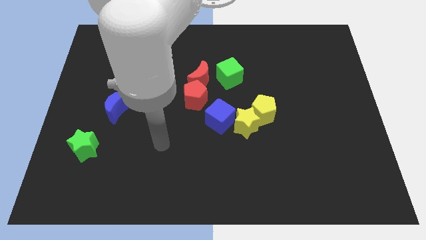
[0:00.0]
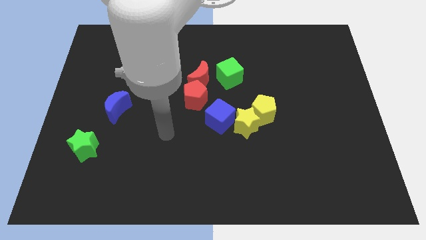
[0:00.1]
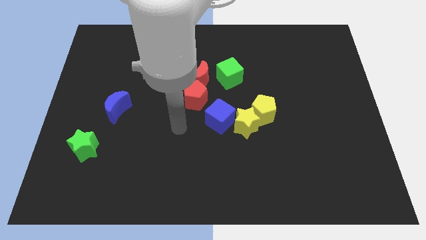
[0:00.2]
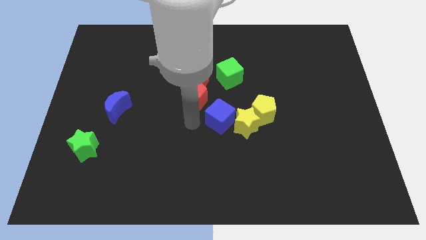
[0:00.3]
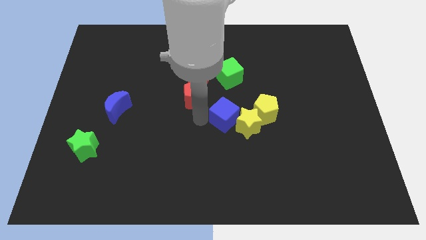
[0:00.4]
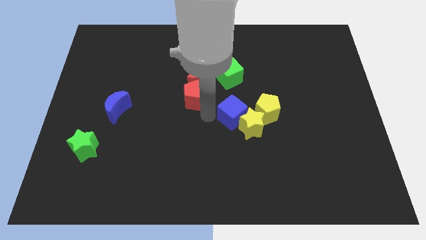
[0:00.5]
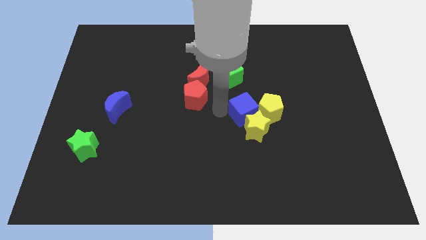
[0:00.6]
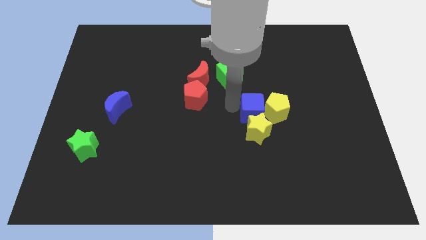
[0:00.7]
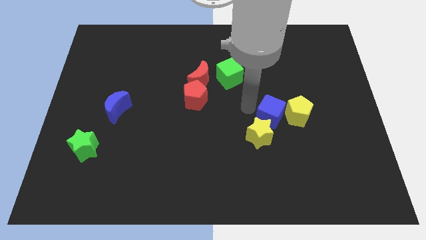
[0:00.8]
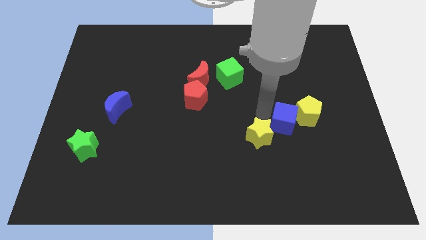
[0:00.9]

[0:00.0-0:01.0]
pull the yellow star apart from the yellow pentagon and blue cube

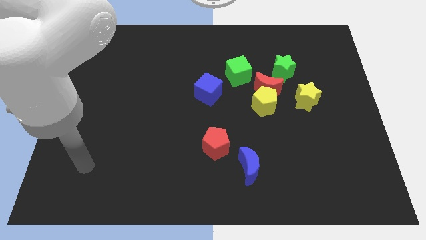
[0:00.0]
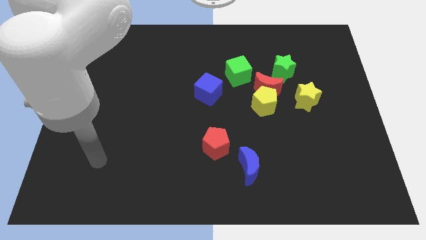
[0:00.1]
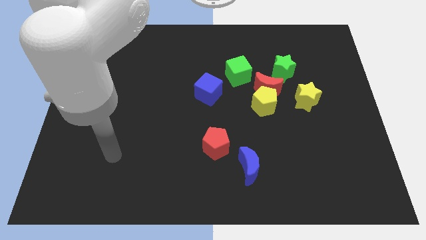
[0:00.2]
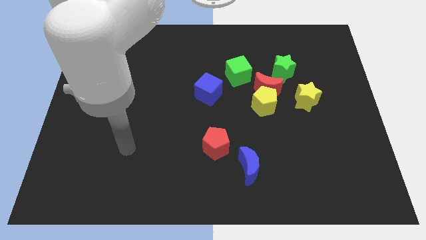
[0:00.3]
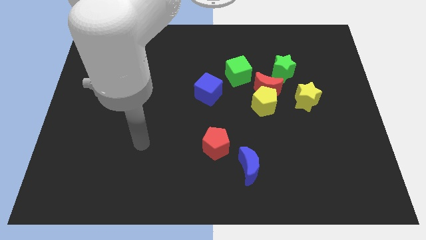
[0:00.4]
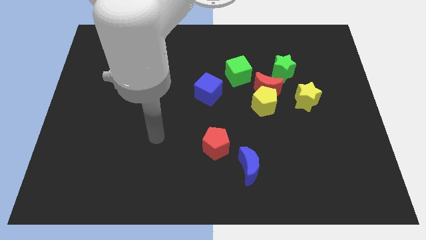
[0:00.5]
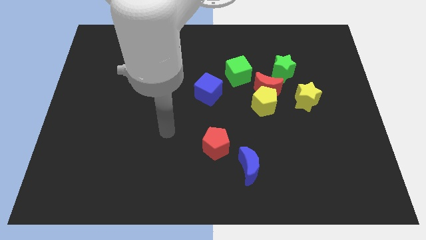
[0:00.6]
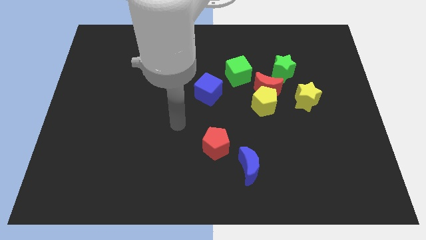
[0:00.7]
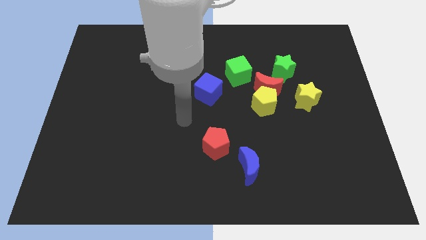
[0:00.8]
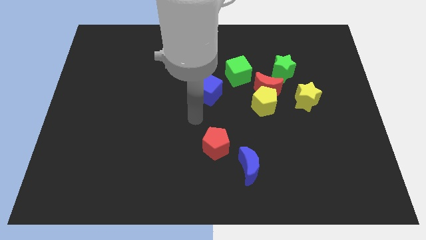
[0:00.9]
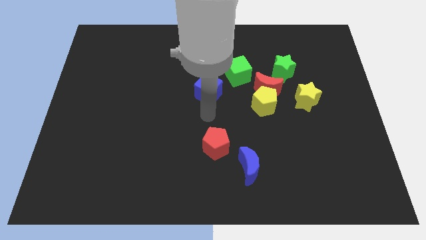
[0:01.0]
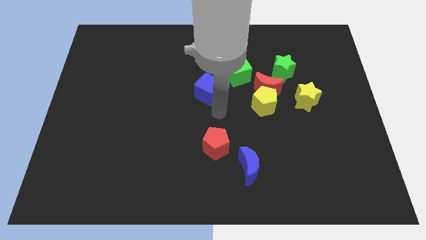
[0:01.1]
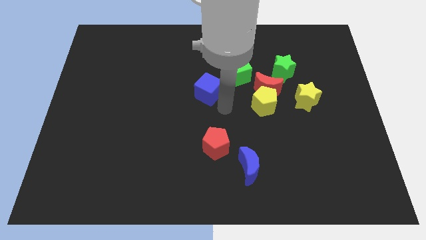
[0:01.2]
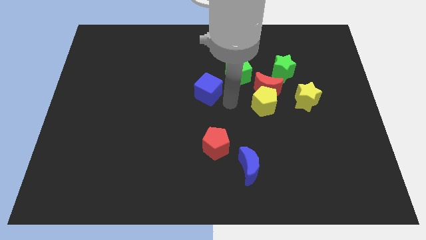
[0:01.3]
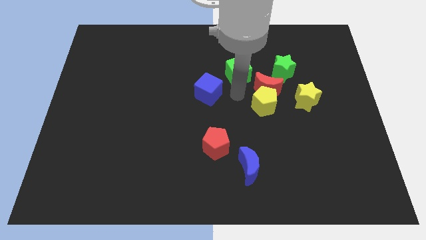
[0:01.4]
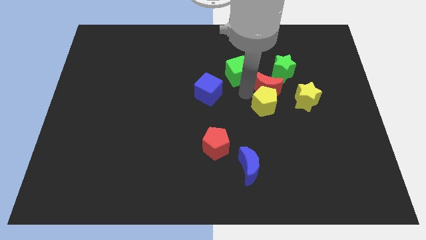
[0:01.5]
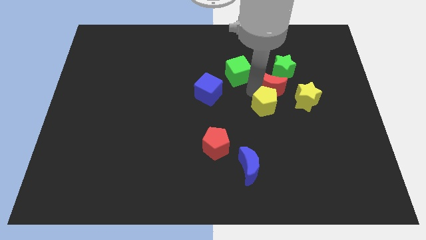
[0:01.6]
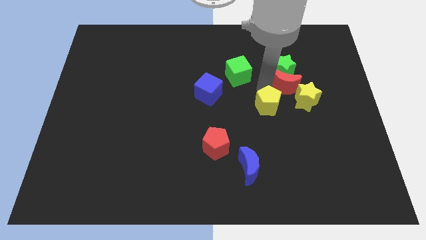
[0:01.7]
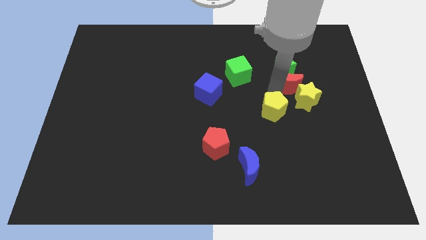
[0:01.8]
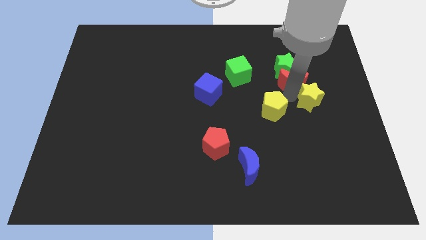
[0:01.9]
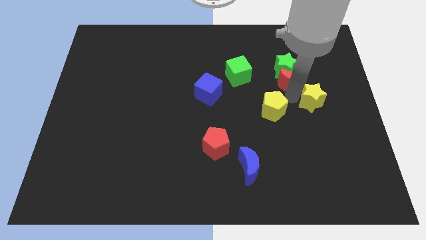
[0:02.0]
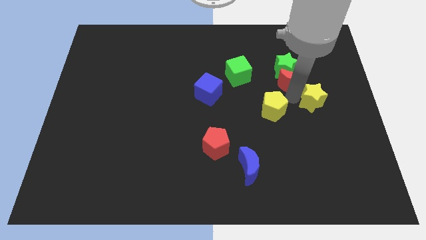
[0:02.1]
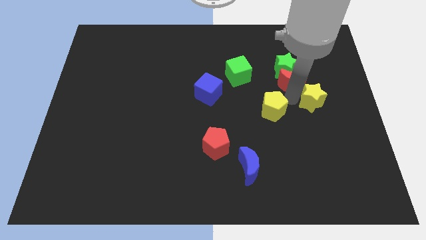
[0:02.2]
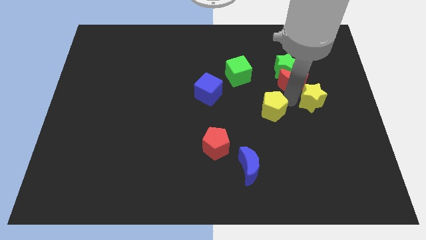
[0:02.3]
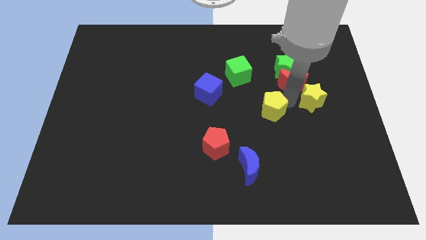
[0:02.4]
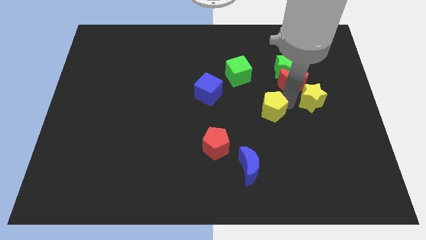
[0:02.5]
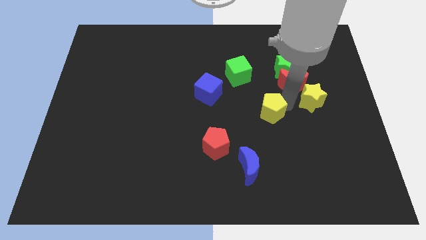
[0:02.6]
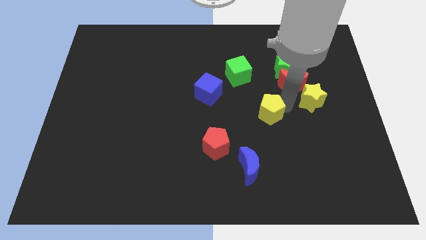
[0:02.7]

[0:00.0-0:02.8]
separate the yellow pentagon from the red moon and yellow star

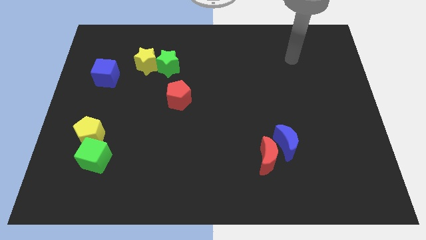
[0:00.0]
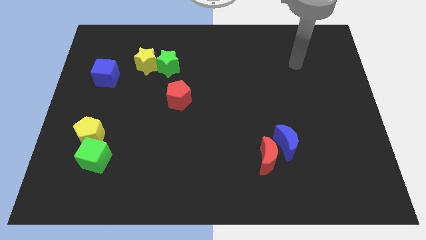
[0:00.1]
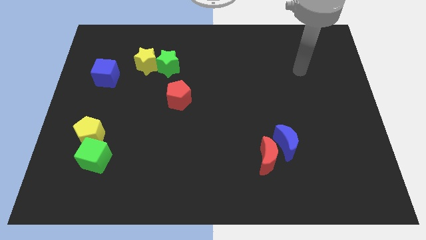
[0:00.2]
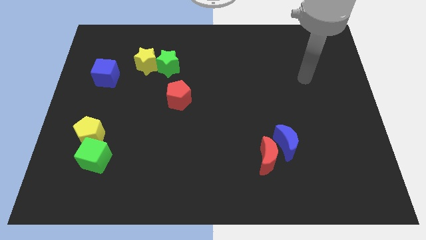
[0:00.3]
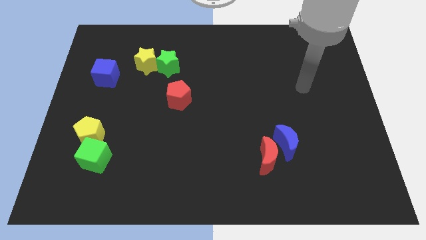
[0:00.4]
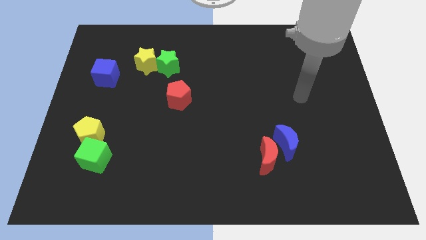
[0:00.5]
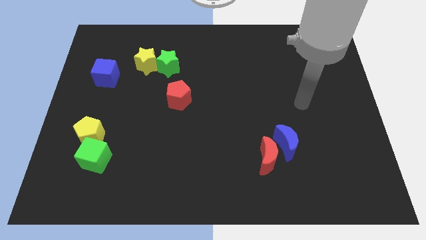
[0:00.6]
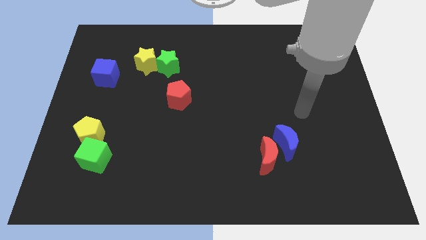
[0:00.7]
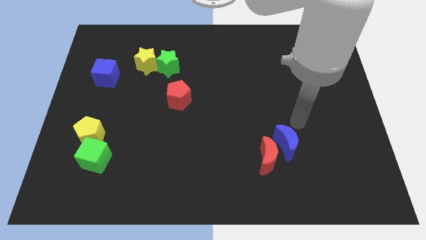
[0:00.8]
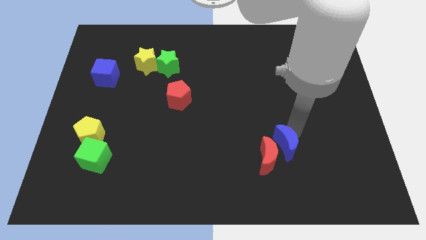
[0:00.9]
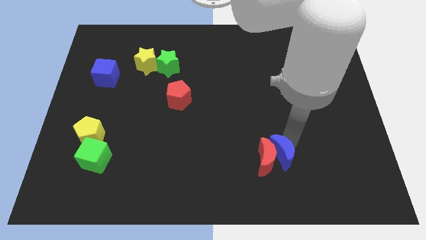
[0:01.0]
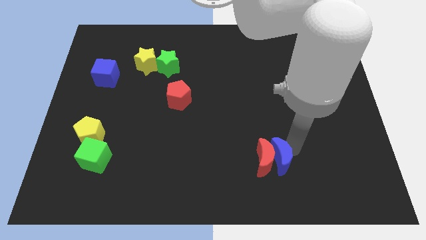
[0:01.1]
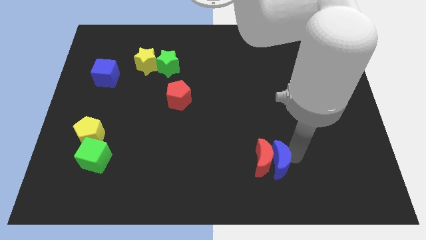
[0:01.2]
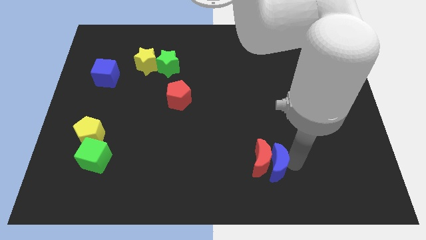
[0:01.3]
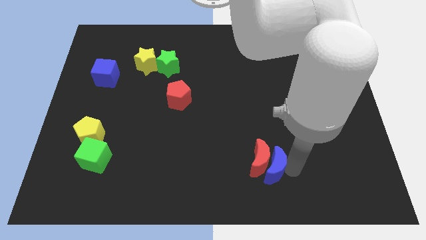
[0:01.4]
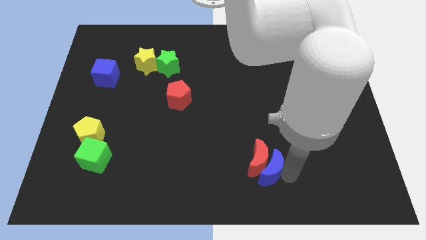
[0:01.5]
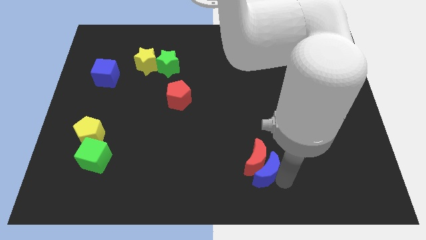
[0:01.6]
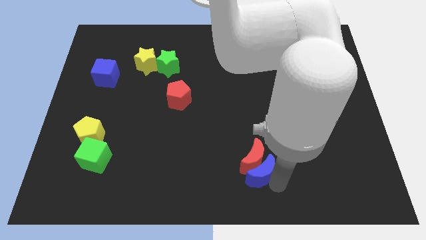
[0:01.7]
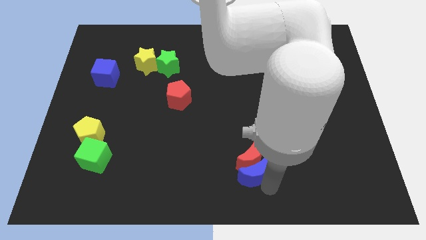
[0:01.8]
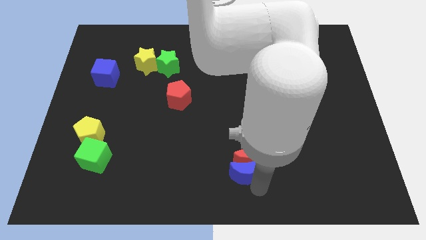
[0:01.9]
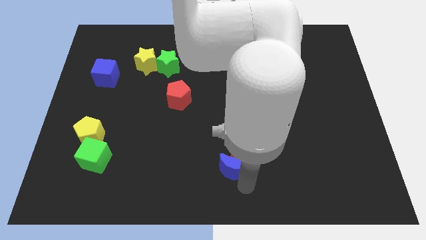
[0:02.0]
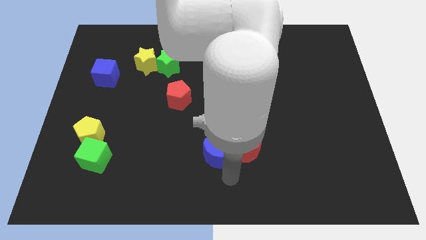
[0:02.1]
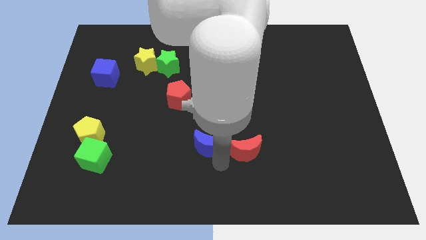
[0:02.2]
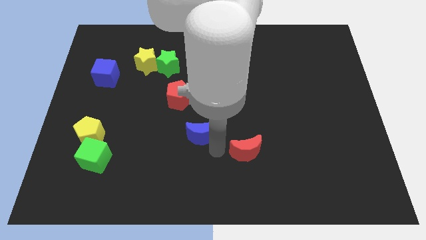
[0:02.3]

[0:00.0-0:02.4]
separate the red moon from the blue moon

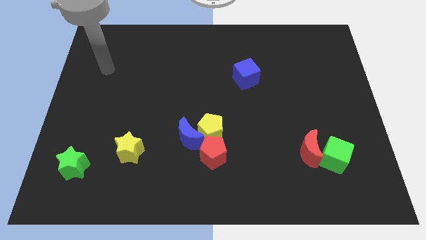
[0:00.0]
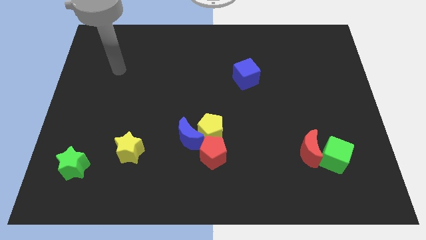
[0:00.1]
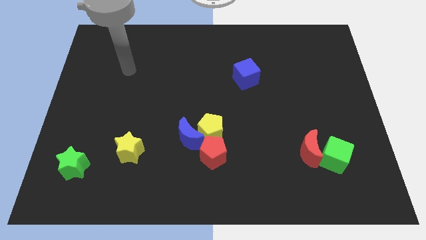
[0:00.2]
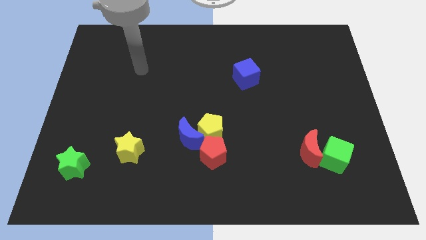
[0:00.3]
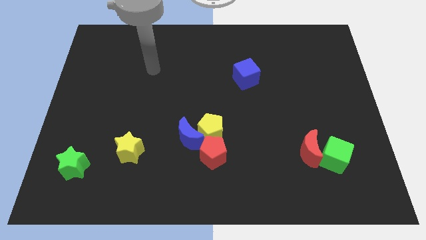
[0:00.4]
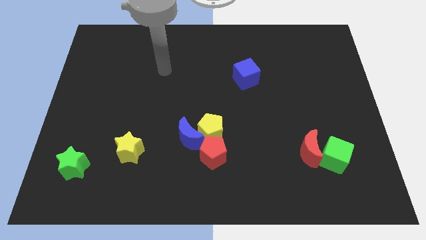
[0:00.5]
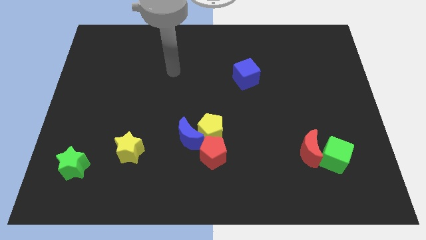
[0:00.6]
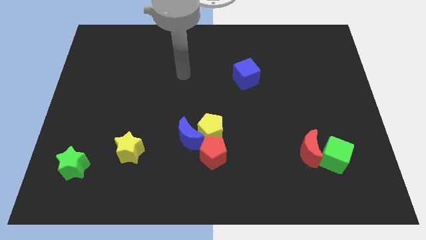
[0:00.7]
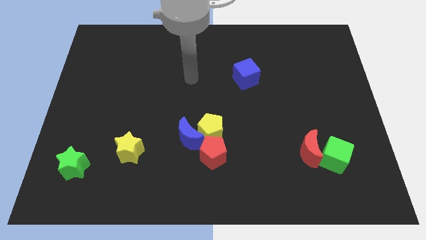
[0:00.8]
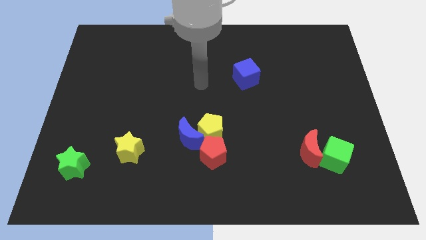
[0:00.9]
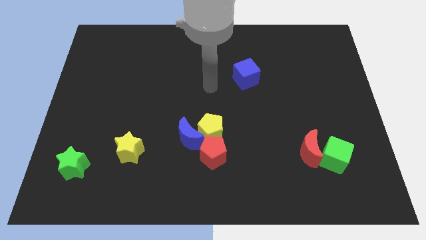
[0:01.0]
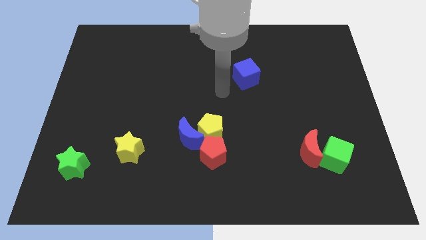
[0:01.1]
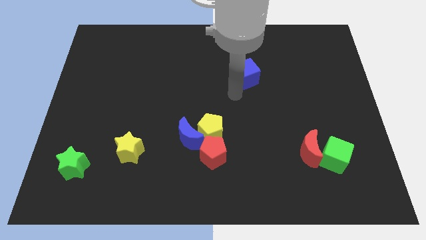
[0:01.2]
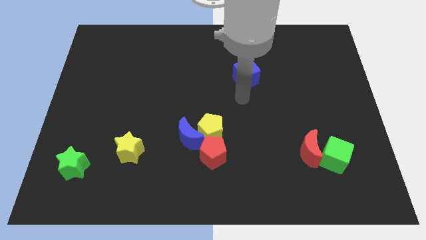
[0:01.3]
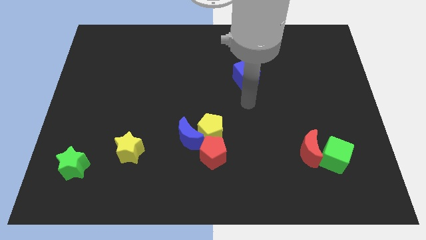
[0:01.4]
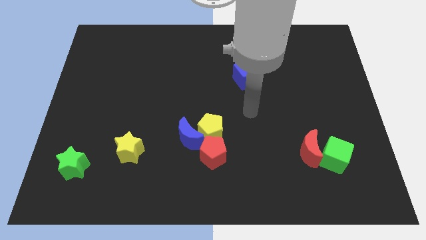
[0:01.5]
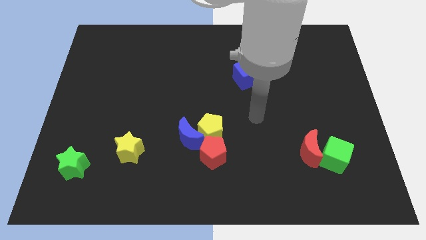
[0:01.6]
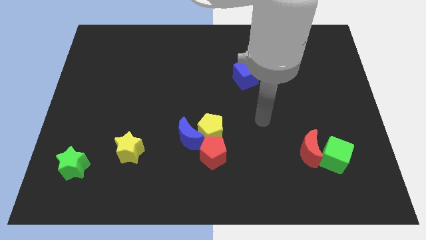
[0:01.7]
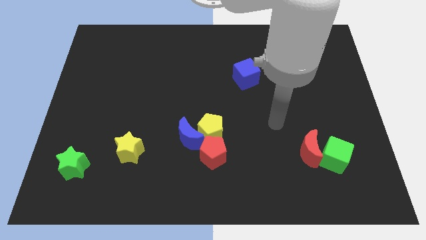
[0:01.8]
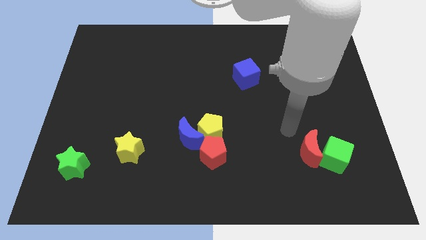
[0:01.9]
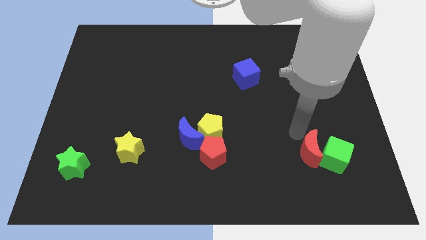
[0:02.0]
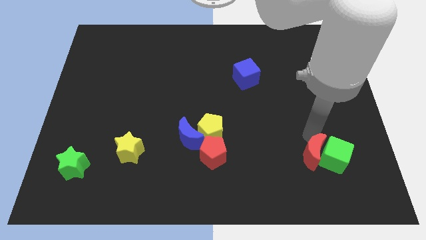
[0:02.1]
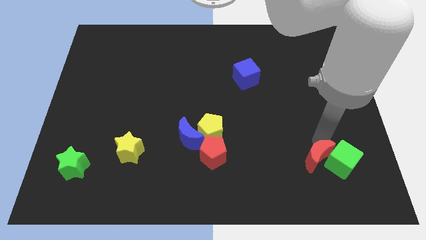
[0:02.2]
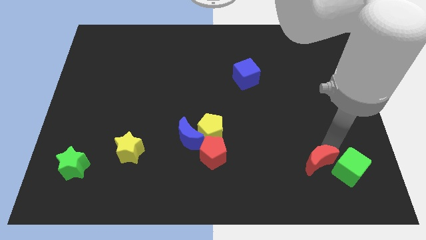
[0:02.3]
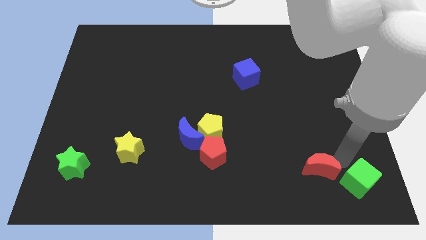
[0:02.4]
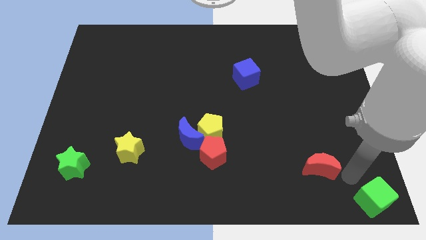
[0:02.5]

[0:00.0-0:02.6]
separate the red moon from the green cube

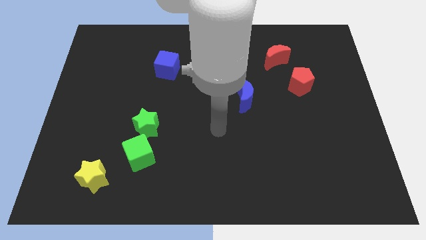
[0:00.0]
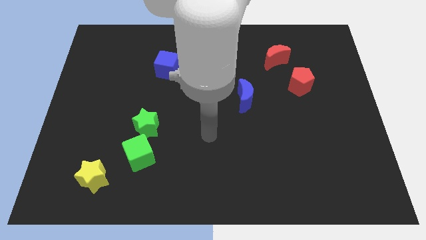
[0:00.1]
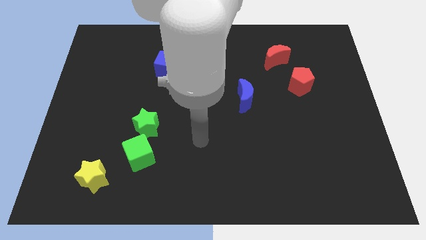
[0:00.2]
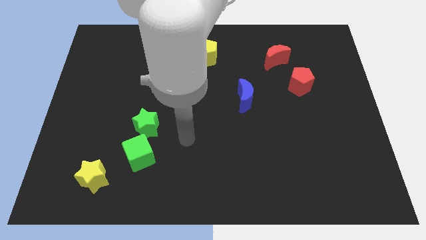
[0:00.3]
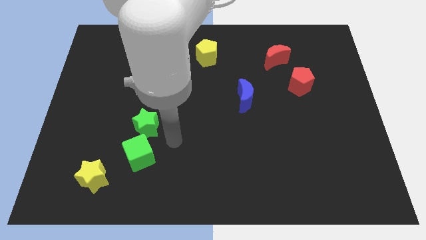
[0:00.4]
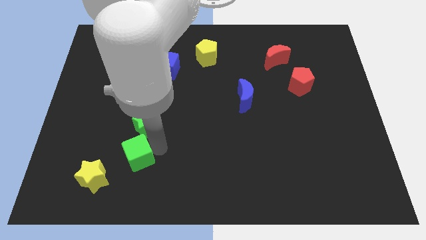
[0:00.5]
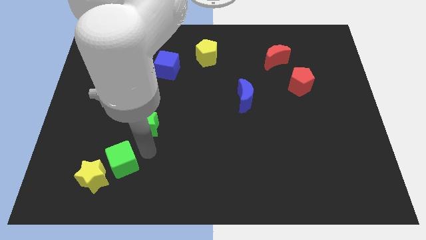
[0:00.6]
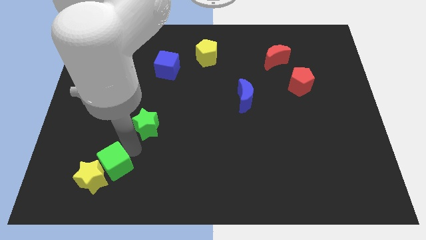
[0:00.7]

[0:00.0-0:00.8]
separate the green star from the green cube
